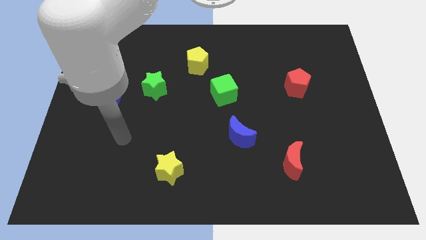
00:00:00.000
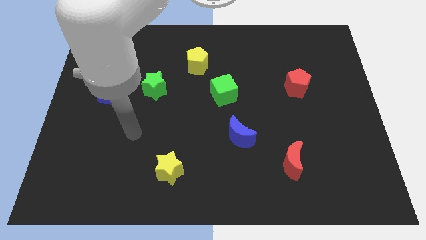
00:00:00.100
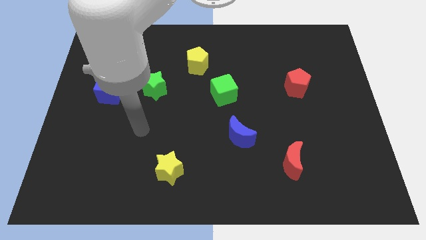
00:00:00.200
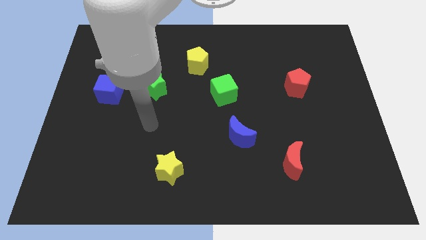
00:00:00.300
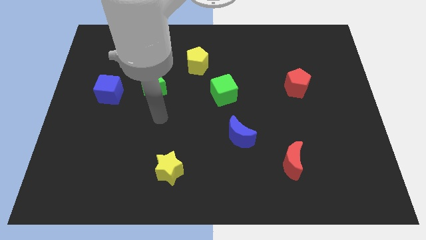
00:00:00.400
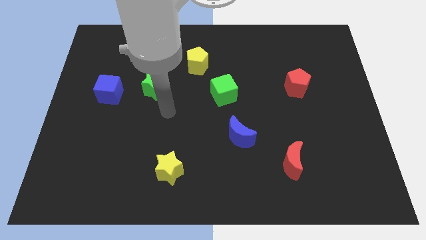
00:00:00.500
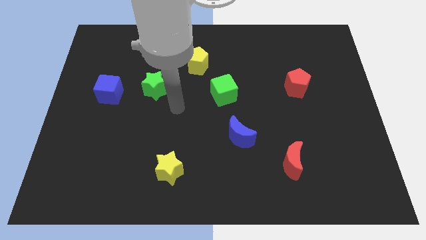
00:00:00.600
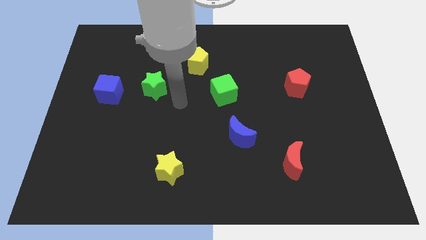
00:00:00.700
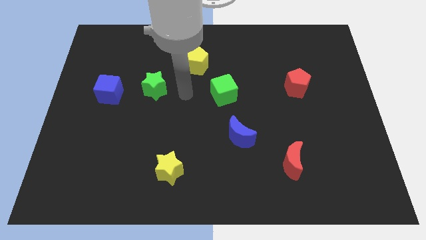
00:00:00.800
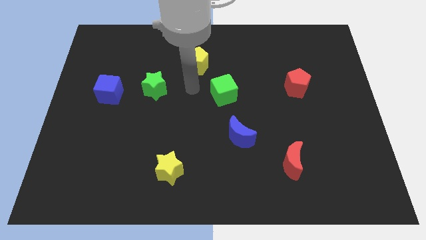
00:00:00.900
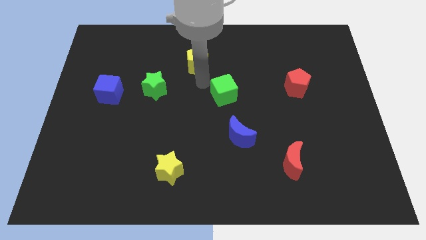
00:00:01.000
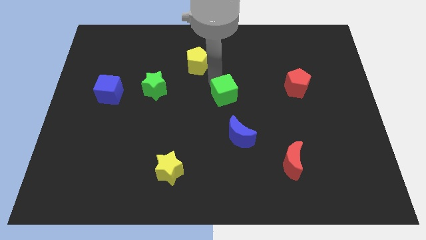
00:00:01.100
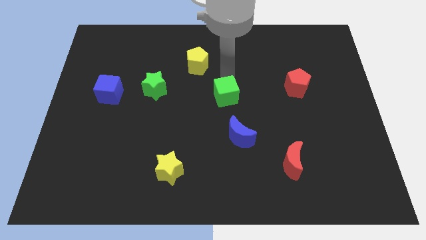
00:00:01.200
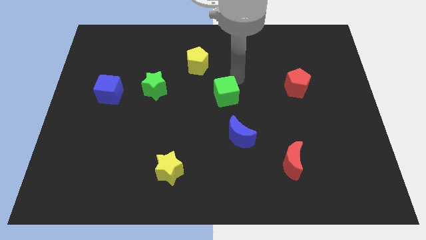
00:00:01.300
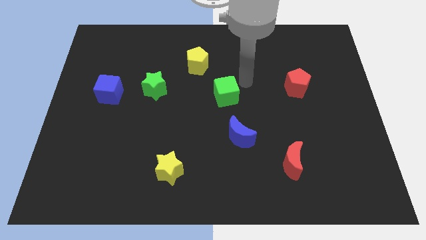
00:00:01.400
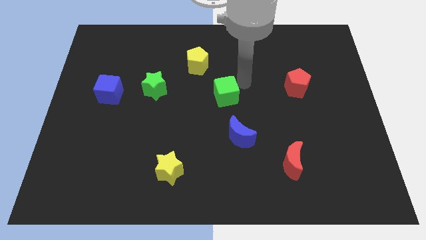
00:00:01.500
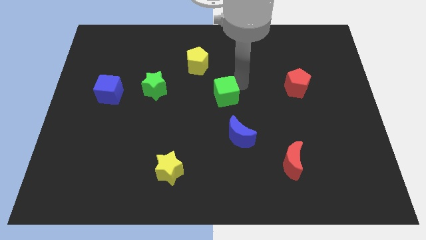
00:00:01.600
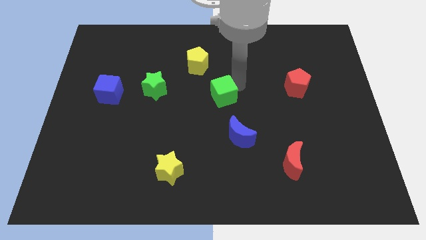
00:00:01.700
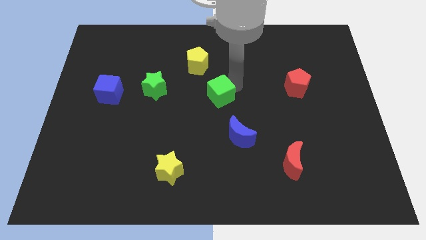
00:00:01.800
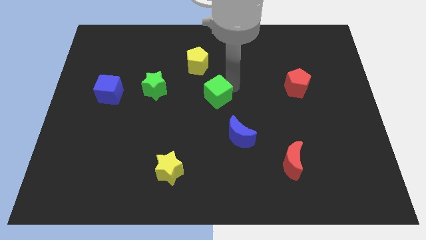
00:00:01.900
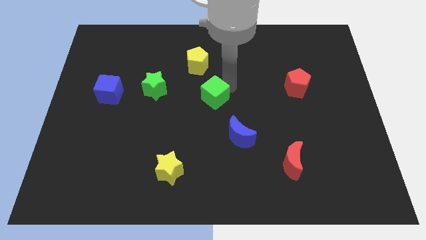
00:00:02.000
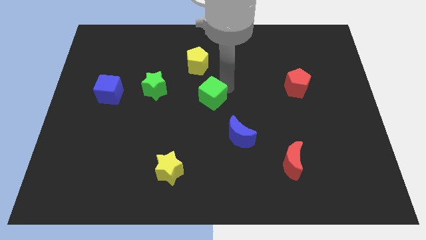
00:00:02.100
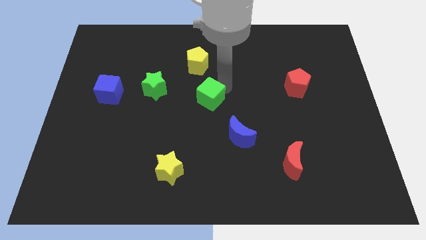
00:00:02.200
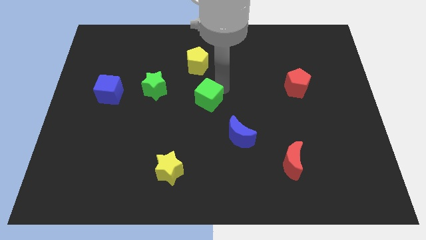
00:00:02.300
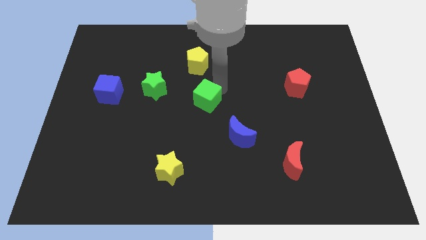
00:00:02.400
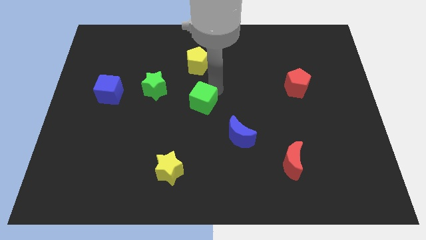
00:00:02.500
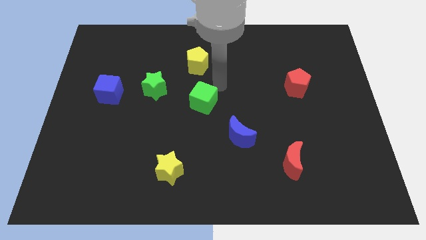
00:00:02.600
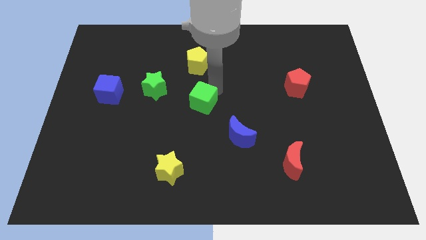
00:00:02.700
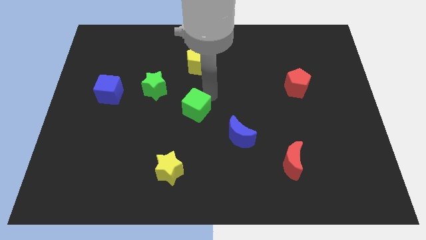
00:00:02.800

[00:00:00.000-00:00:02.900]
slide the green cube a little down and to the left diagonally

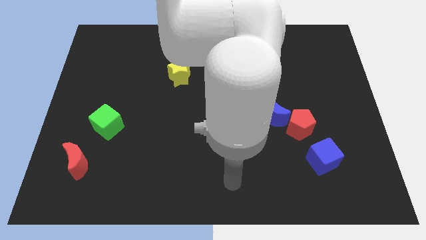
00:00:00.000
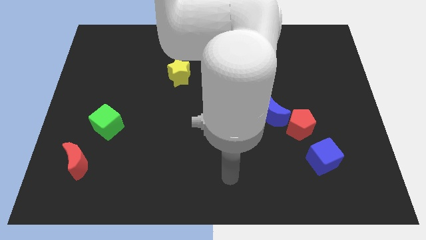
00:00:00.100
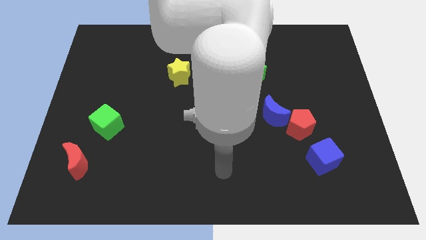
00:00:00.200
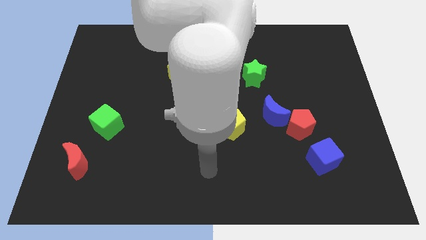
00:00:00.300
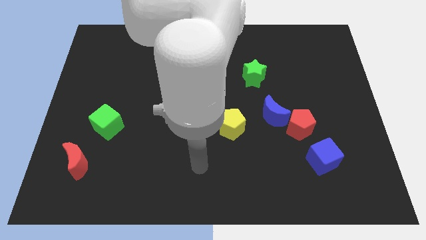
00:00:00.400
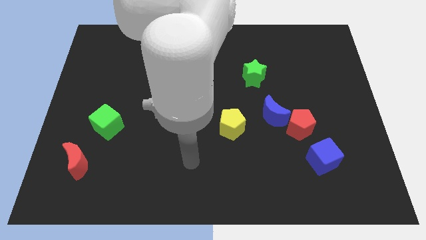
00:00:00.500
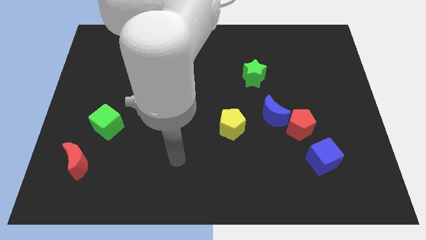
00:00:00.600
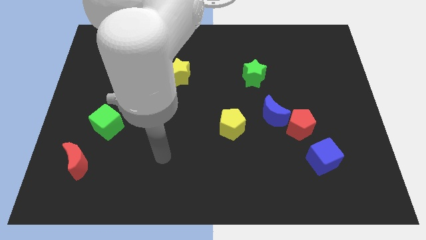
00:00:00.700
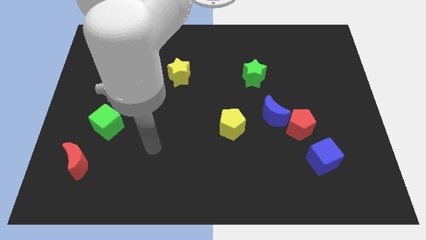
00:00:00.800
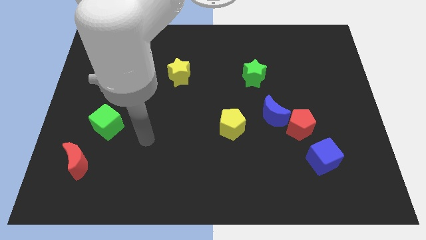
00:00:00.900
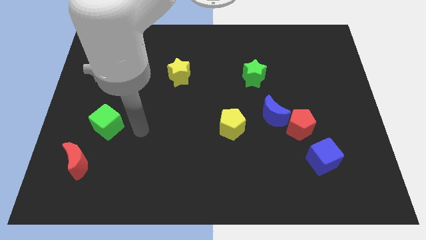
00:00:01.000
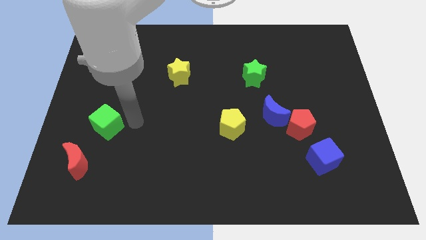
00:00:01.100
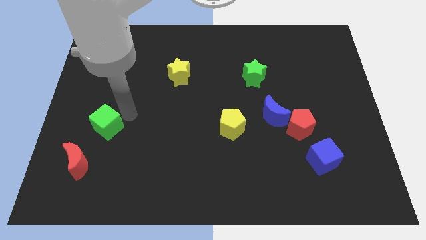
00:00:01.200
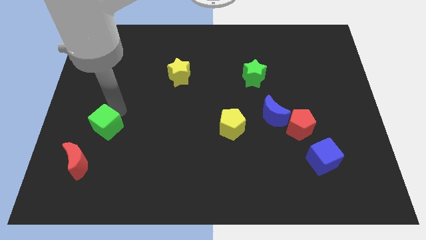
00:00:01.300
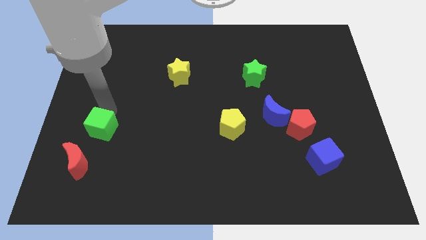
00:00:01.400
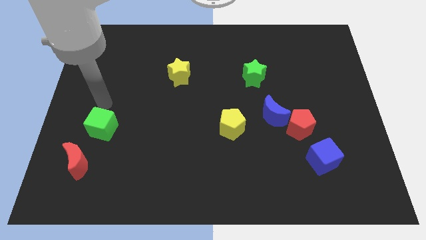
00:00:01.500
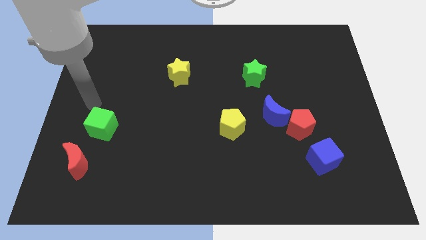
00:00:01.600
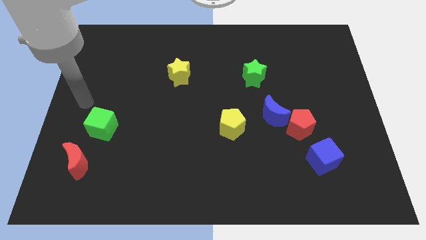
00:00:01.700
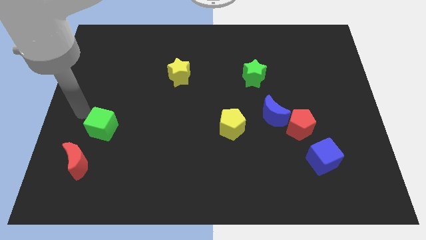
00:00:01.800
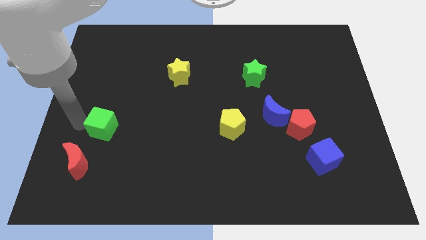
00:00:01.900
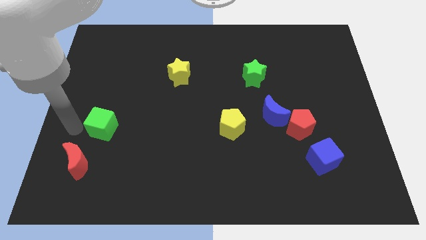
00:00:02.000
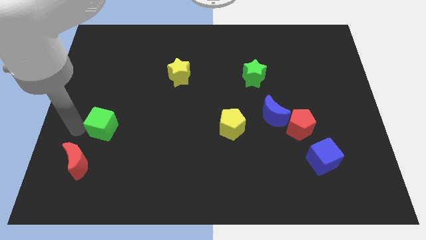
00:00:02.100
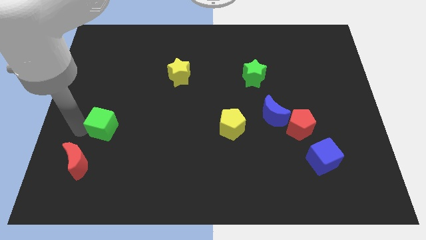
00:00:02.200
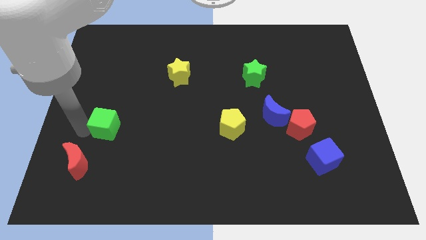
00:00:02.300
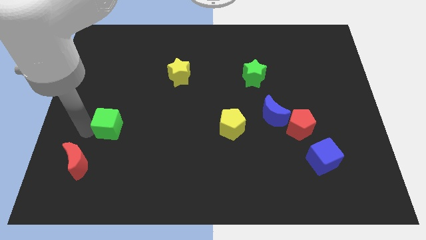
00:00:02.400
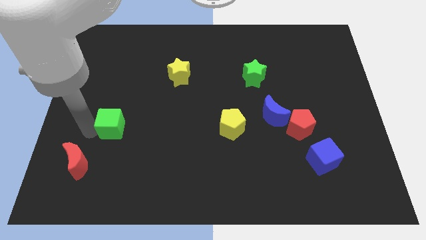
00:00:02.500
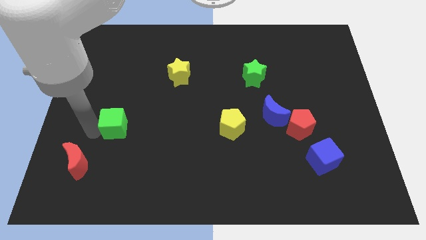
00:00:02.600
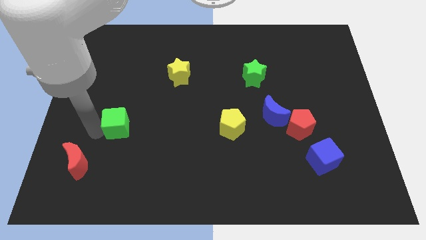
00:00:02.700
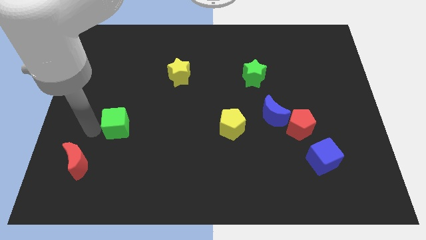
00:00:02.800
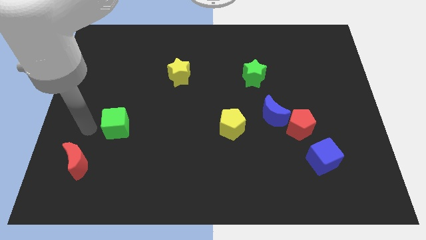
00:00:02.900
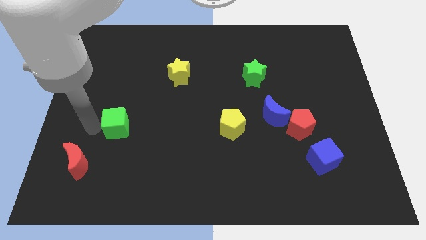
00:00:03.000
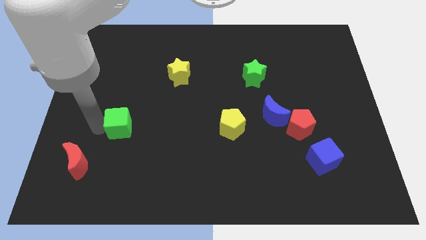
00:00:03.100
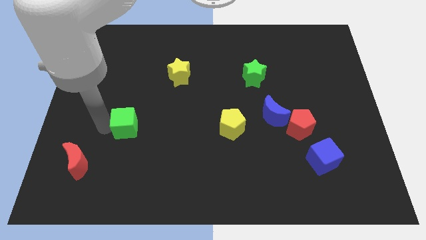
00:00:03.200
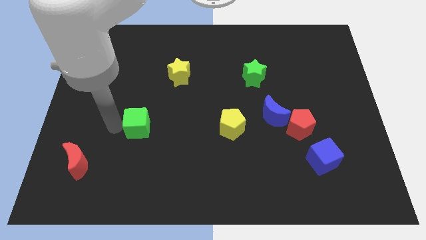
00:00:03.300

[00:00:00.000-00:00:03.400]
slide the green cube somewhat to the right

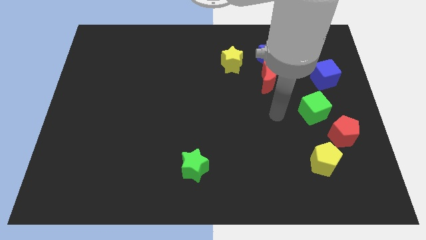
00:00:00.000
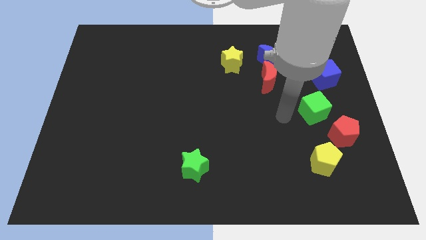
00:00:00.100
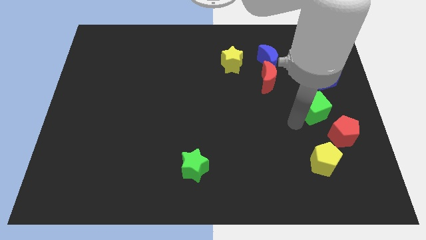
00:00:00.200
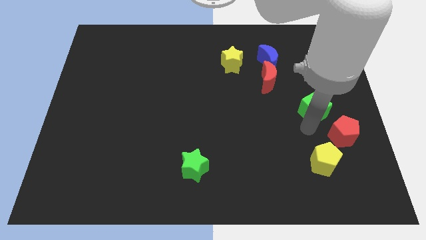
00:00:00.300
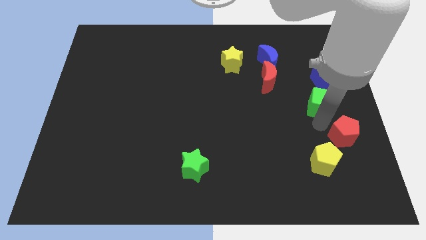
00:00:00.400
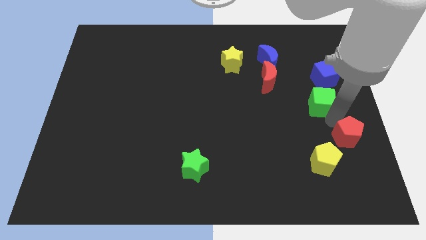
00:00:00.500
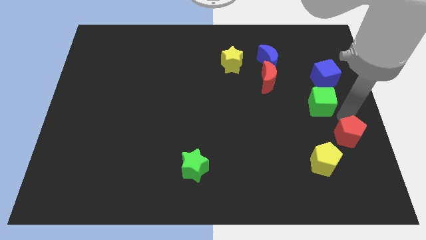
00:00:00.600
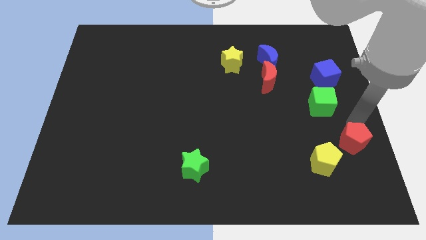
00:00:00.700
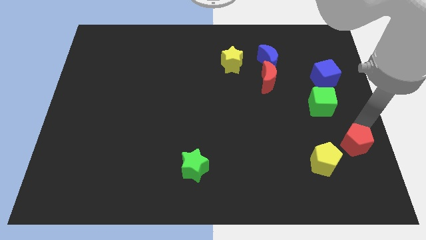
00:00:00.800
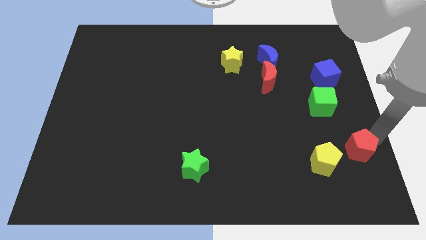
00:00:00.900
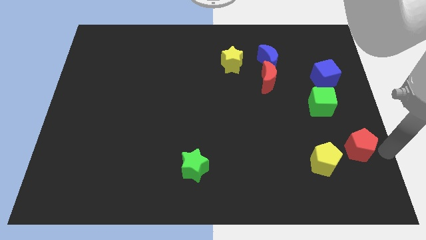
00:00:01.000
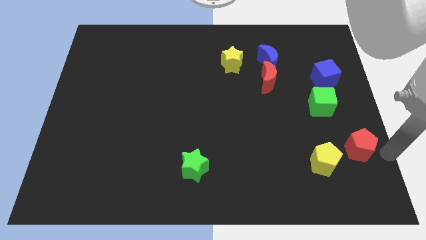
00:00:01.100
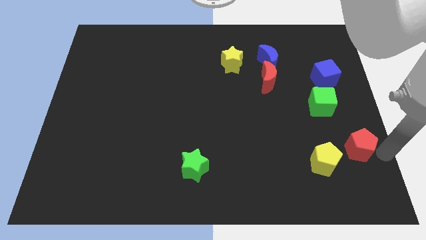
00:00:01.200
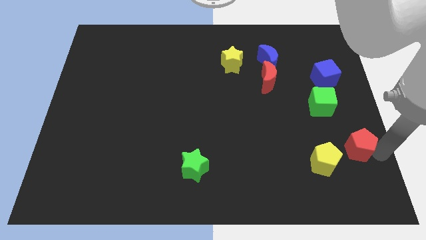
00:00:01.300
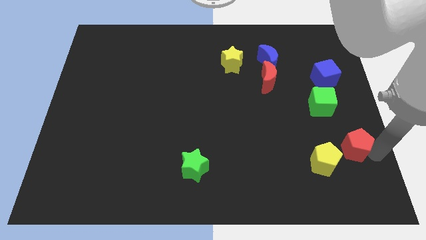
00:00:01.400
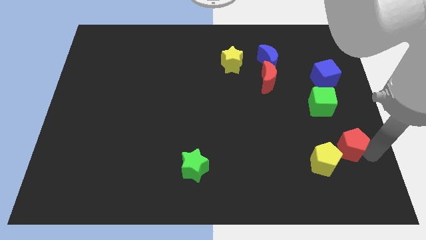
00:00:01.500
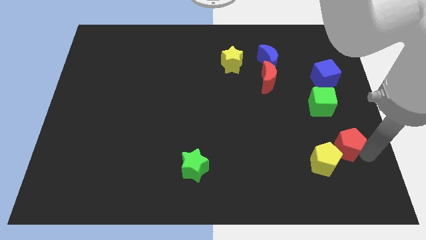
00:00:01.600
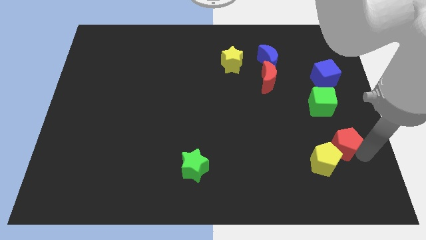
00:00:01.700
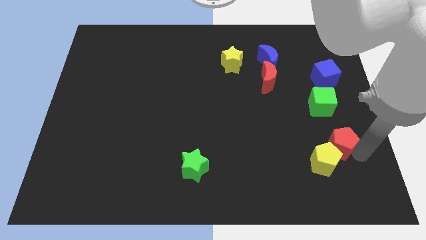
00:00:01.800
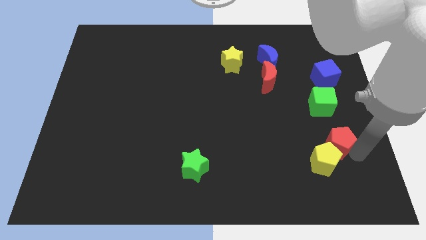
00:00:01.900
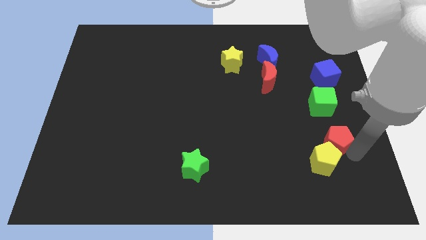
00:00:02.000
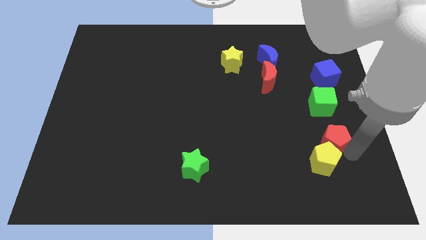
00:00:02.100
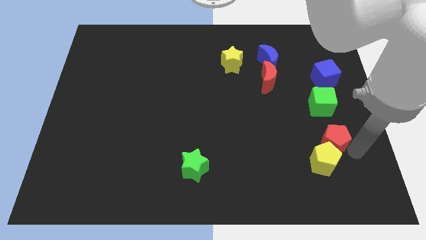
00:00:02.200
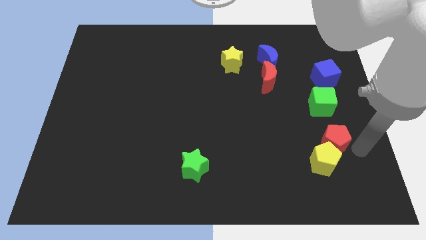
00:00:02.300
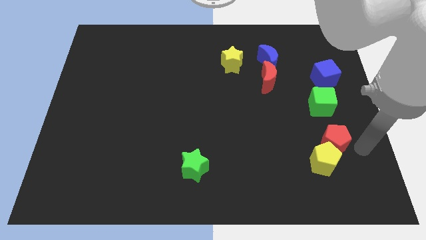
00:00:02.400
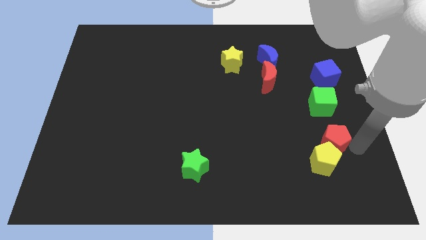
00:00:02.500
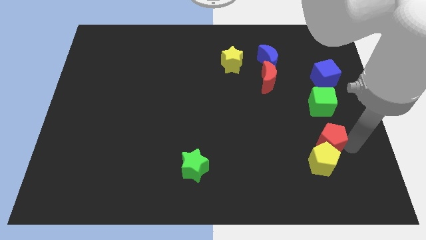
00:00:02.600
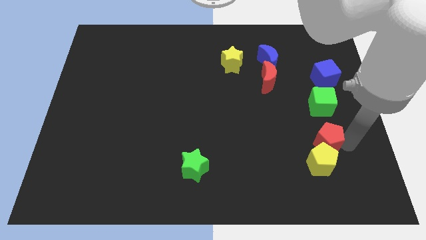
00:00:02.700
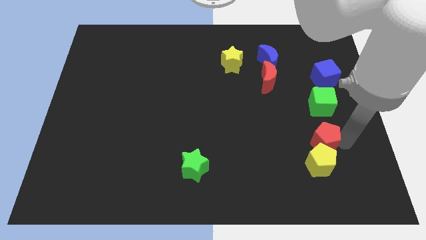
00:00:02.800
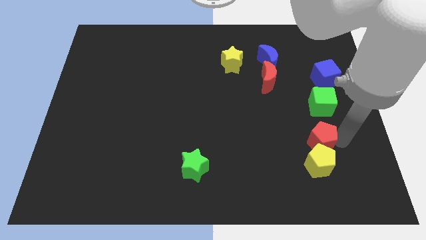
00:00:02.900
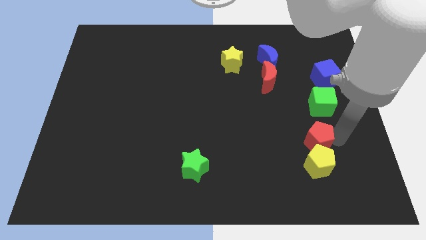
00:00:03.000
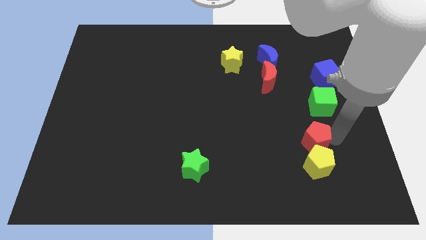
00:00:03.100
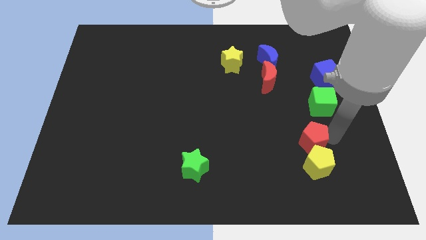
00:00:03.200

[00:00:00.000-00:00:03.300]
slightly slide the red pentagon to the left
